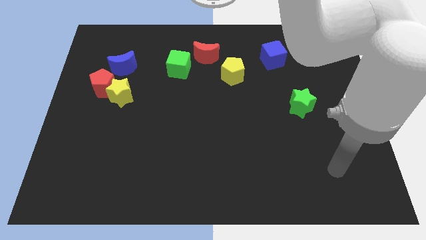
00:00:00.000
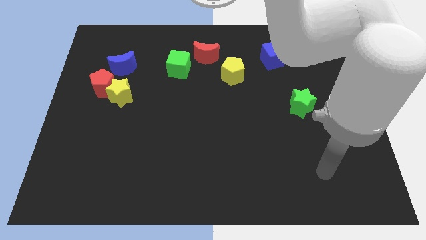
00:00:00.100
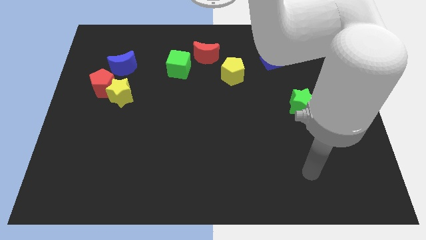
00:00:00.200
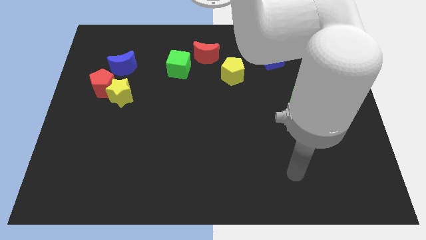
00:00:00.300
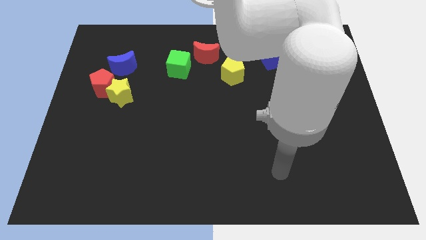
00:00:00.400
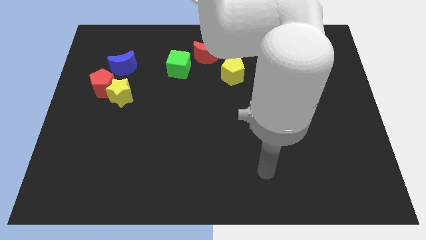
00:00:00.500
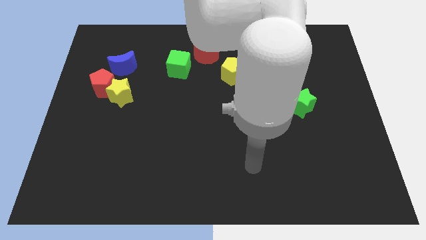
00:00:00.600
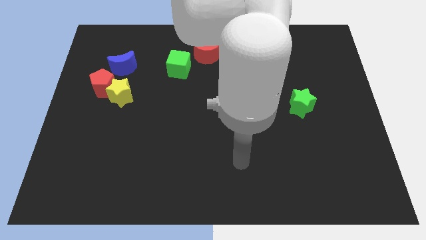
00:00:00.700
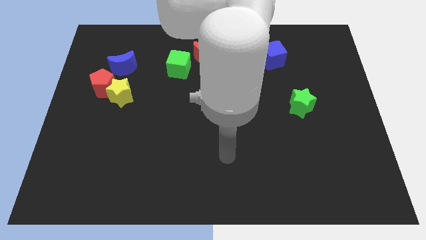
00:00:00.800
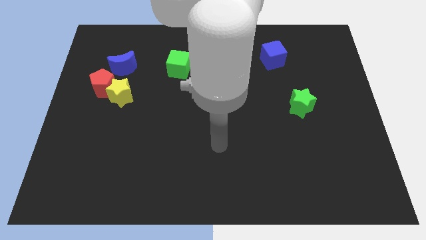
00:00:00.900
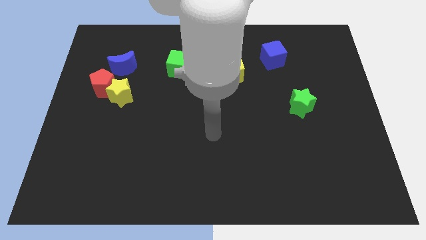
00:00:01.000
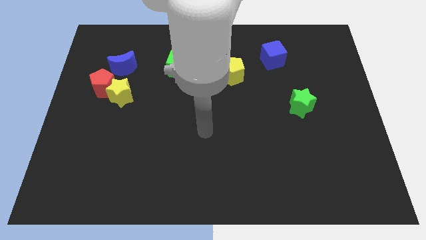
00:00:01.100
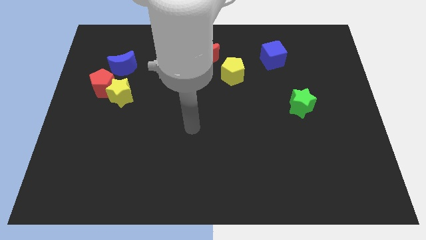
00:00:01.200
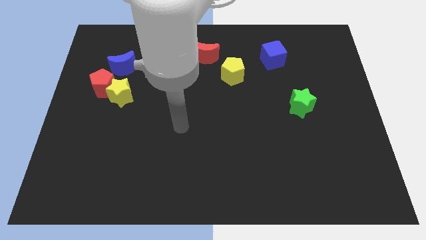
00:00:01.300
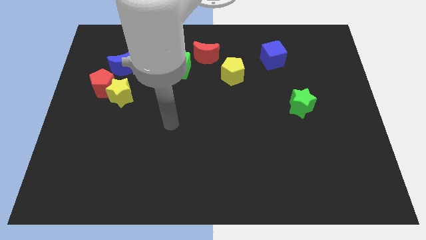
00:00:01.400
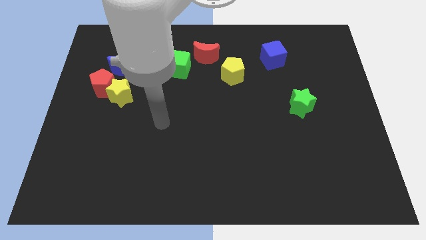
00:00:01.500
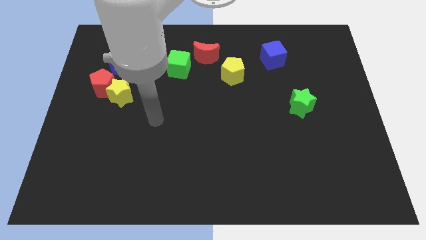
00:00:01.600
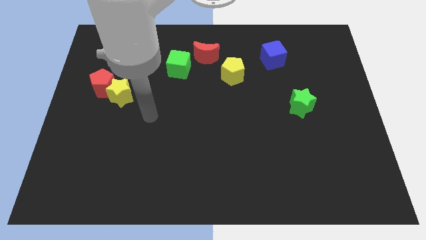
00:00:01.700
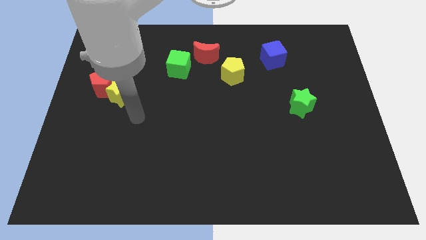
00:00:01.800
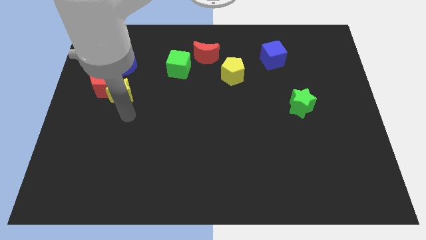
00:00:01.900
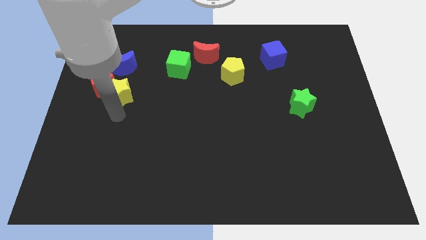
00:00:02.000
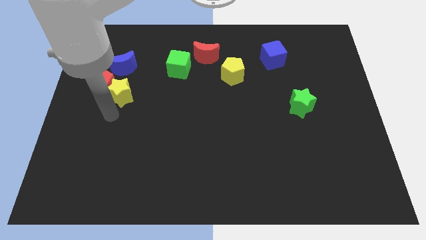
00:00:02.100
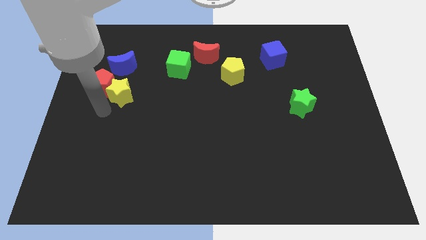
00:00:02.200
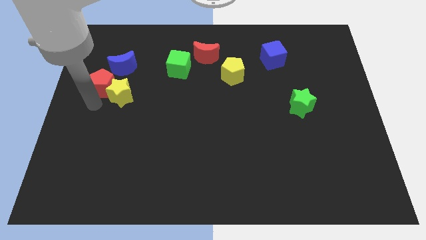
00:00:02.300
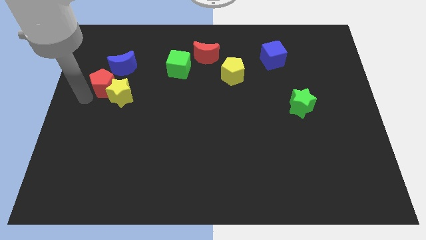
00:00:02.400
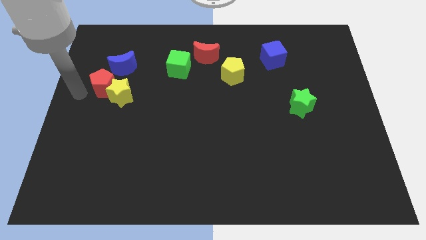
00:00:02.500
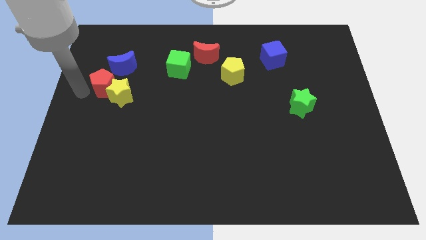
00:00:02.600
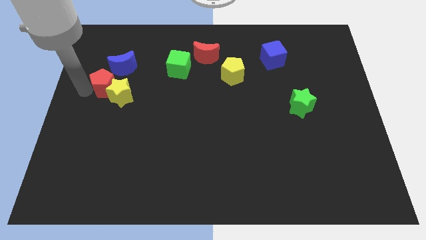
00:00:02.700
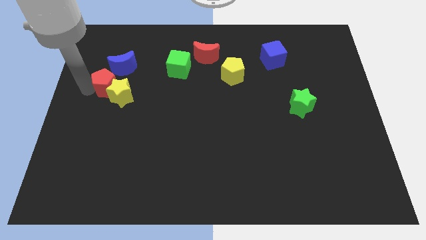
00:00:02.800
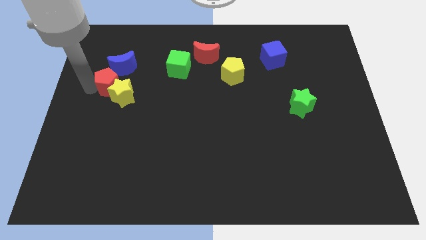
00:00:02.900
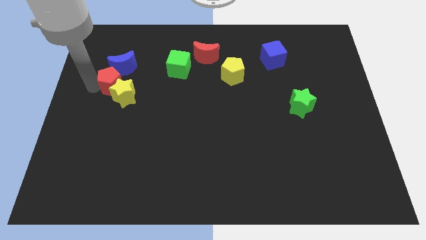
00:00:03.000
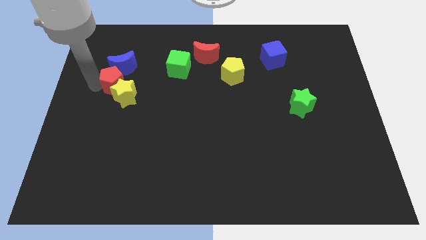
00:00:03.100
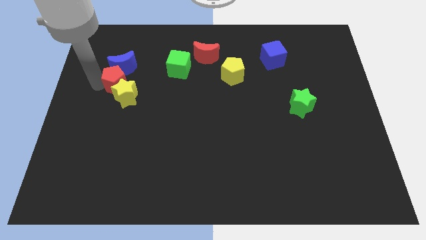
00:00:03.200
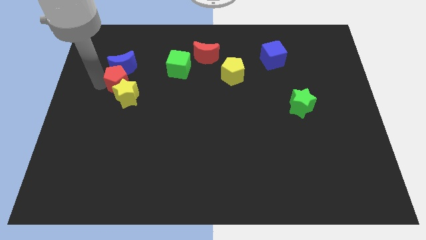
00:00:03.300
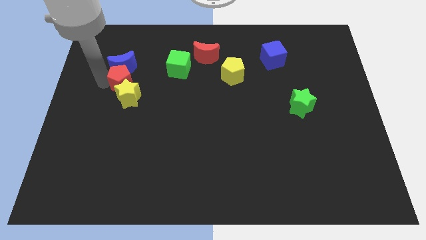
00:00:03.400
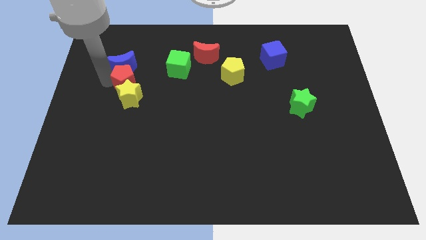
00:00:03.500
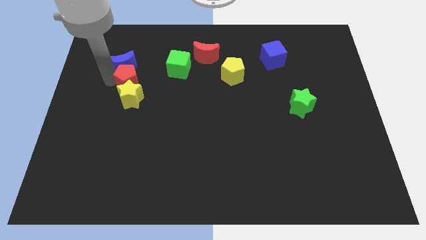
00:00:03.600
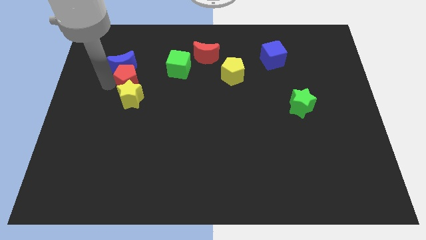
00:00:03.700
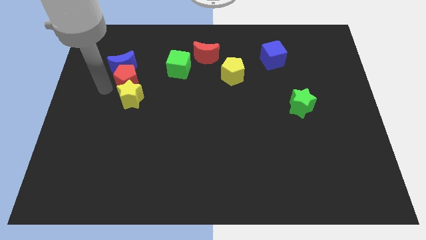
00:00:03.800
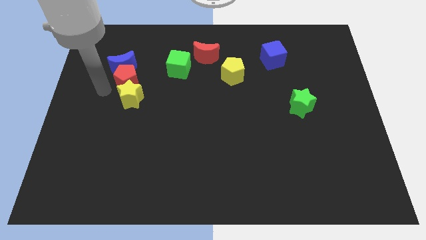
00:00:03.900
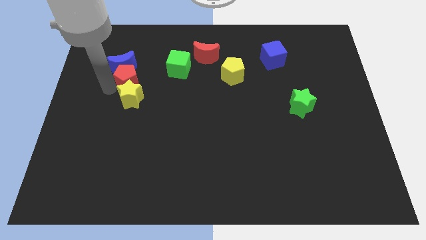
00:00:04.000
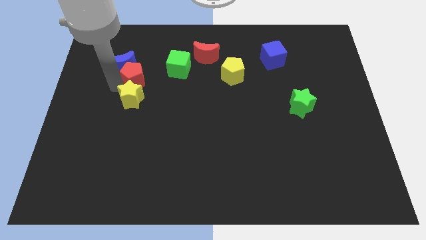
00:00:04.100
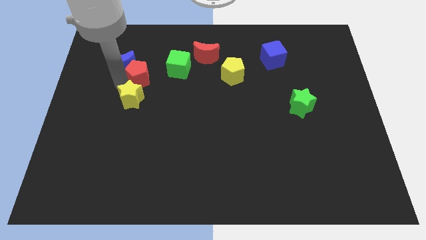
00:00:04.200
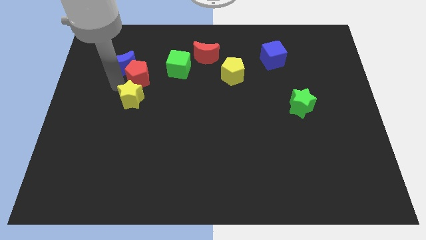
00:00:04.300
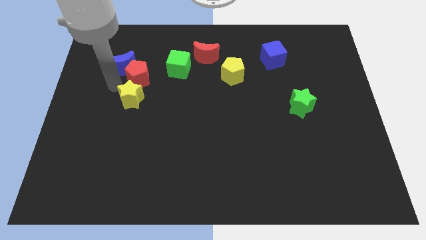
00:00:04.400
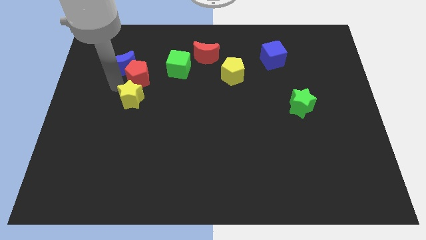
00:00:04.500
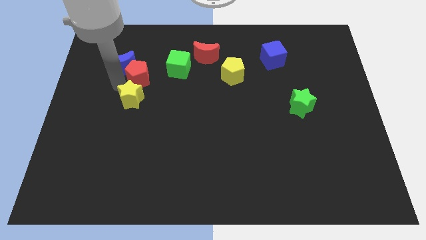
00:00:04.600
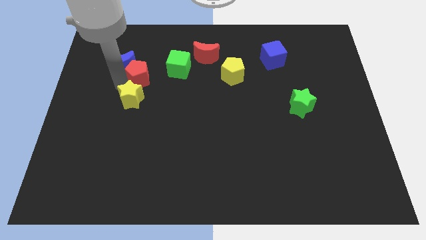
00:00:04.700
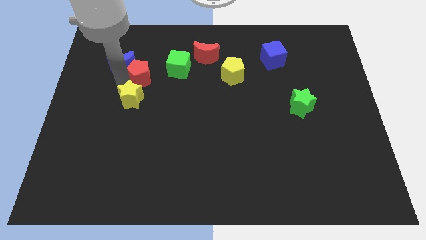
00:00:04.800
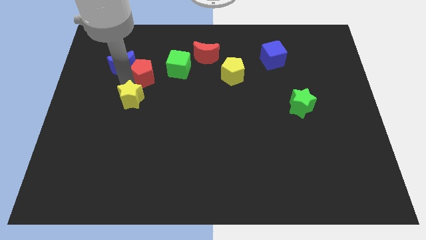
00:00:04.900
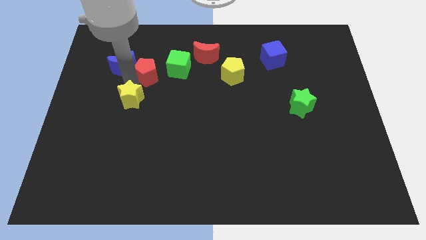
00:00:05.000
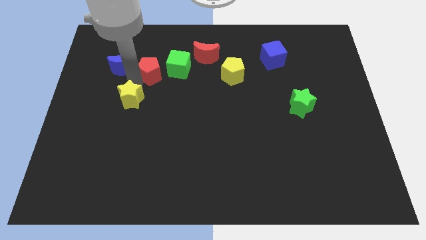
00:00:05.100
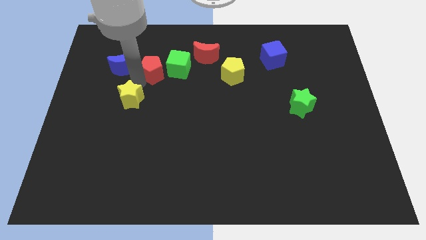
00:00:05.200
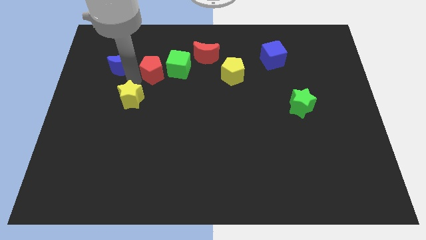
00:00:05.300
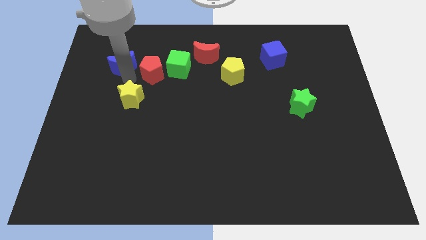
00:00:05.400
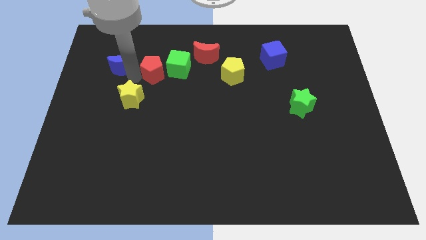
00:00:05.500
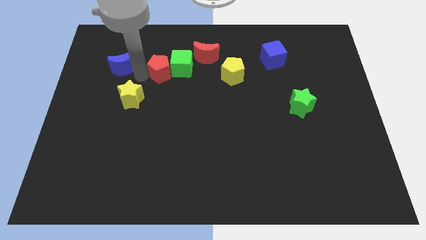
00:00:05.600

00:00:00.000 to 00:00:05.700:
put the red pentagon towards the green cube

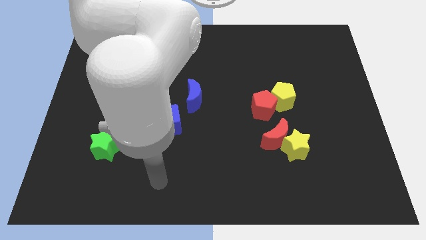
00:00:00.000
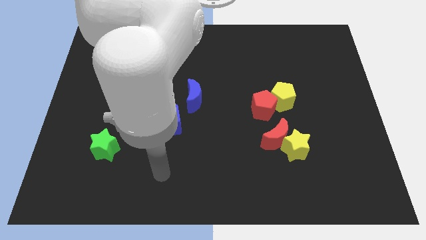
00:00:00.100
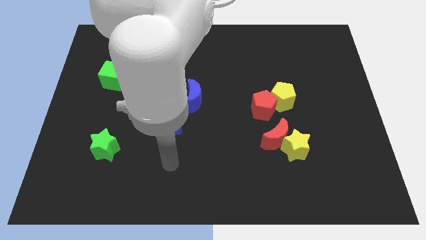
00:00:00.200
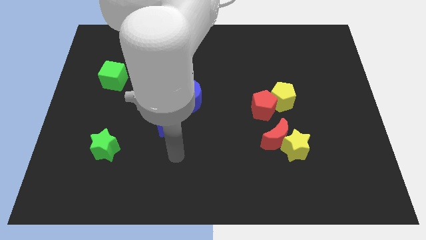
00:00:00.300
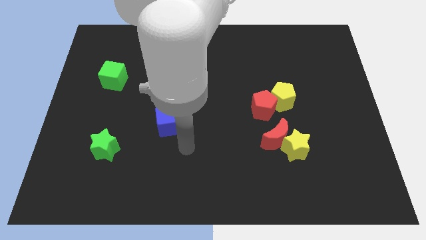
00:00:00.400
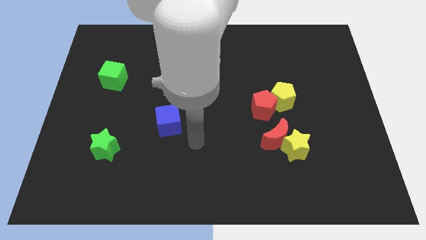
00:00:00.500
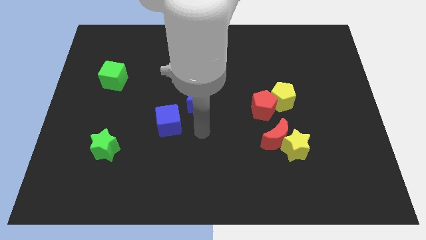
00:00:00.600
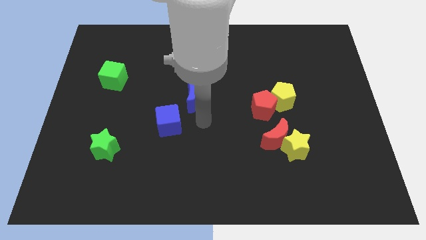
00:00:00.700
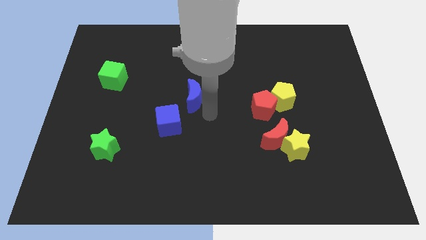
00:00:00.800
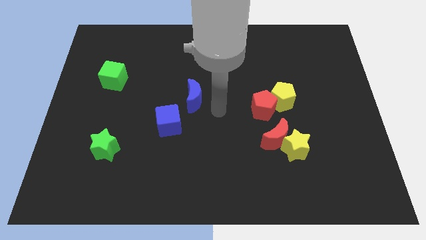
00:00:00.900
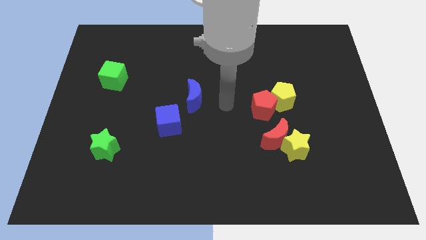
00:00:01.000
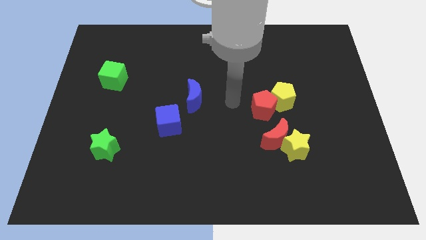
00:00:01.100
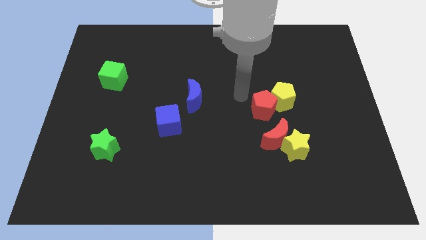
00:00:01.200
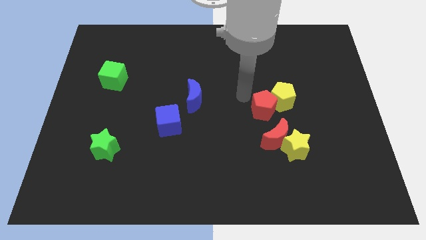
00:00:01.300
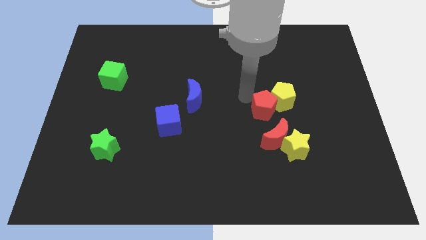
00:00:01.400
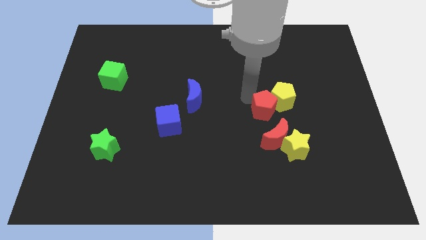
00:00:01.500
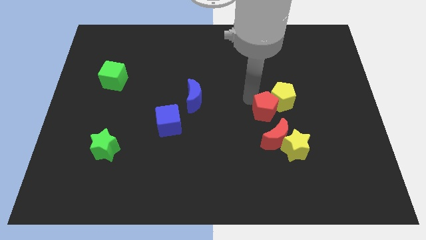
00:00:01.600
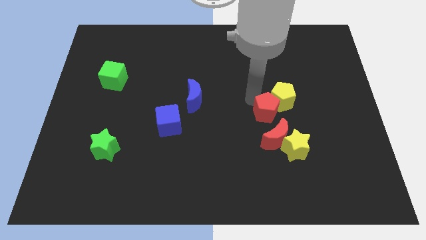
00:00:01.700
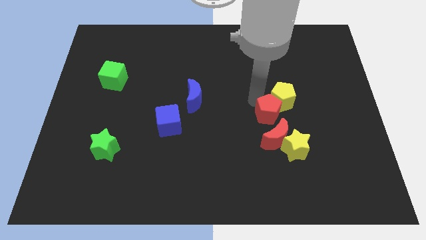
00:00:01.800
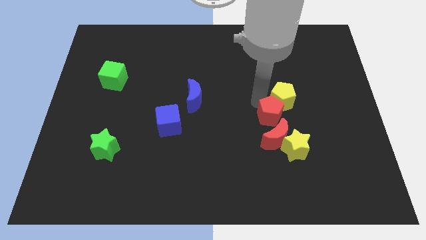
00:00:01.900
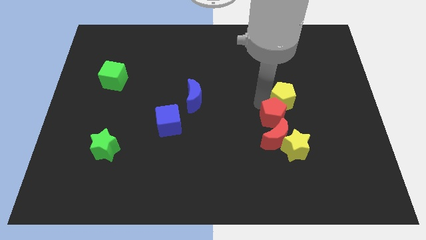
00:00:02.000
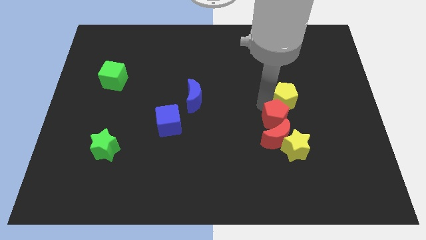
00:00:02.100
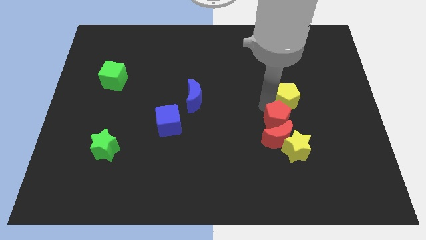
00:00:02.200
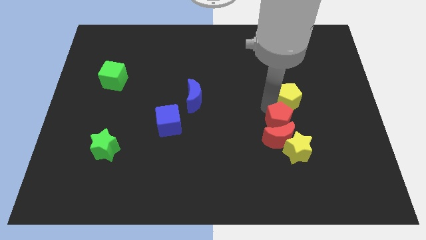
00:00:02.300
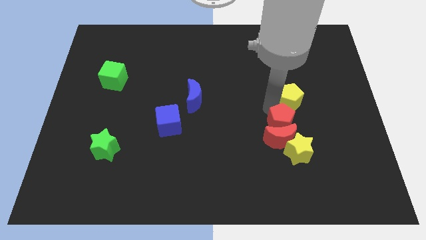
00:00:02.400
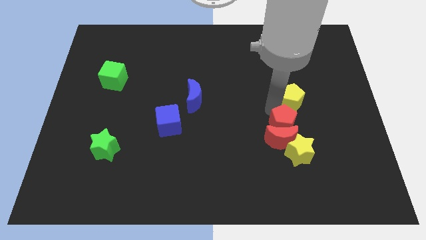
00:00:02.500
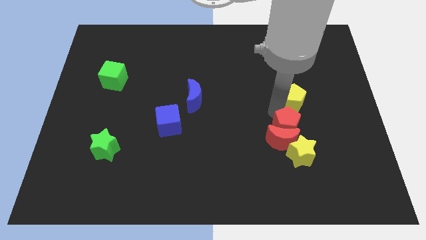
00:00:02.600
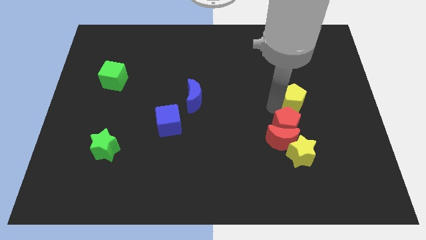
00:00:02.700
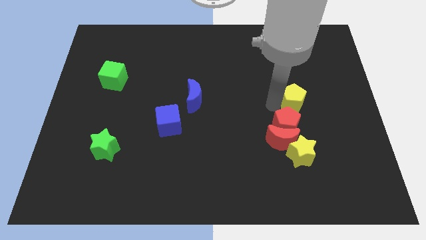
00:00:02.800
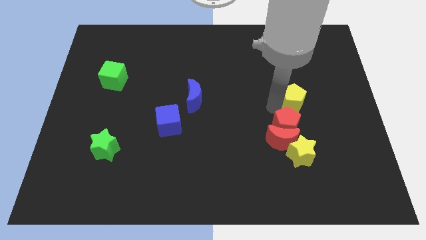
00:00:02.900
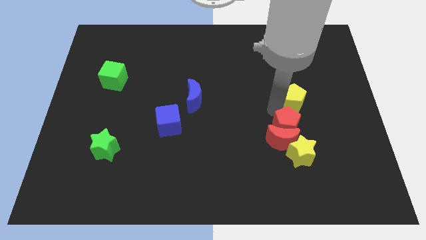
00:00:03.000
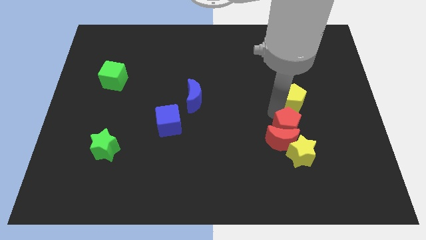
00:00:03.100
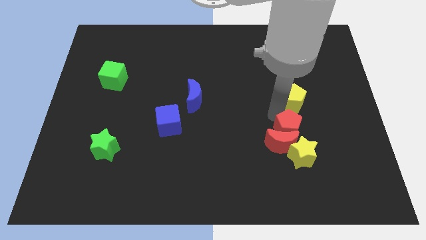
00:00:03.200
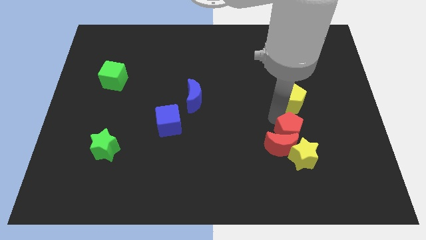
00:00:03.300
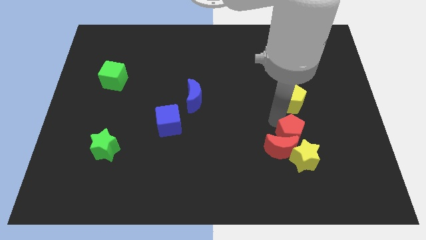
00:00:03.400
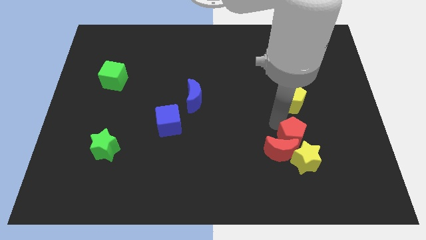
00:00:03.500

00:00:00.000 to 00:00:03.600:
slide the red pentagon towards the yellow star
